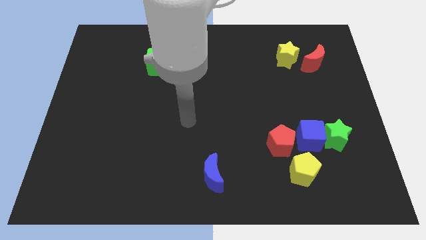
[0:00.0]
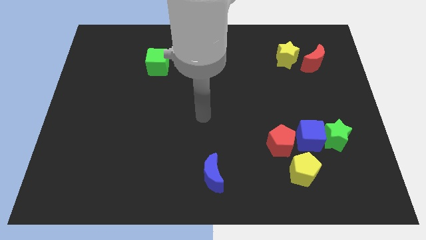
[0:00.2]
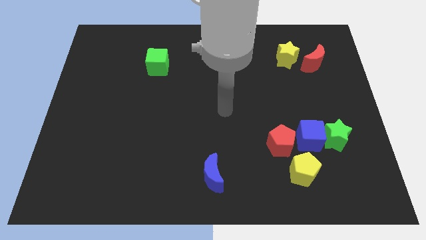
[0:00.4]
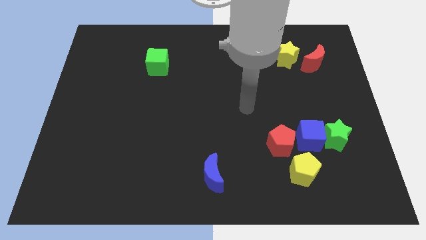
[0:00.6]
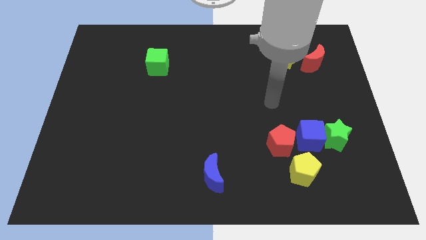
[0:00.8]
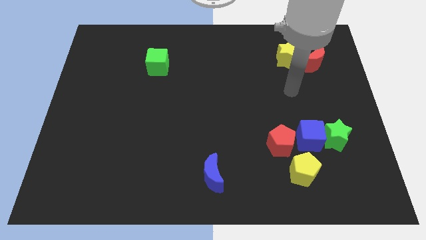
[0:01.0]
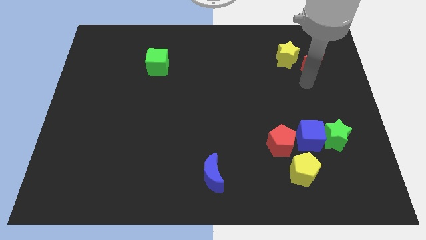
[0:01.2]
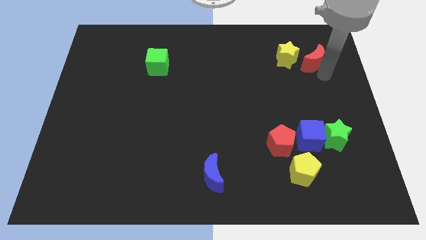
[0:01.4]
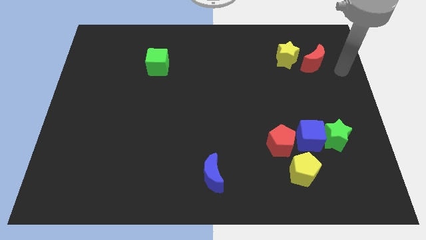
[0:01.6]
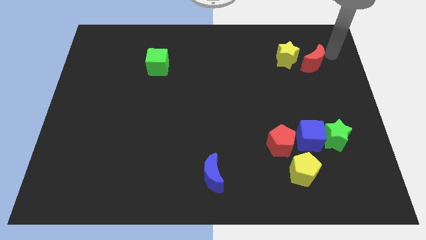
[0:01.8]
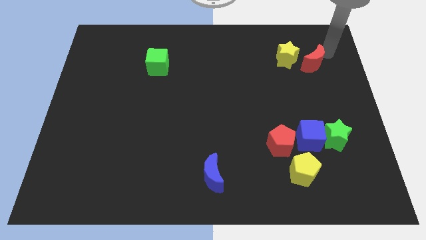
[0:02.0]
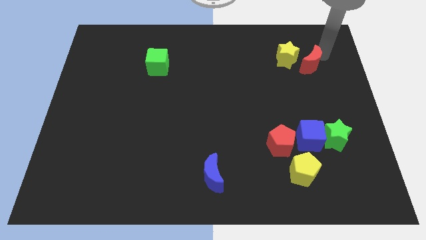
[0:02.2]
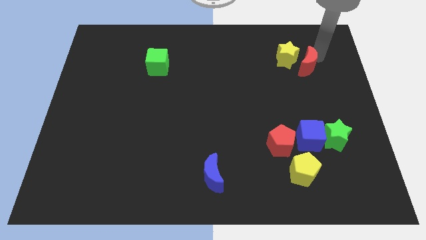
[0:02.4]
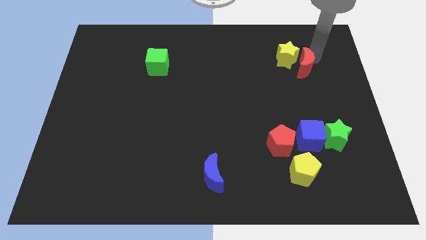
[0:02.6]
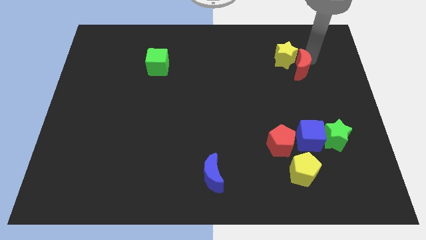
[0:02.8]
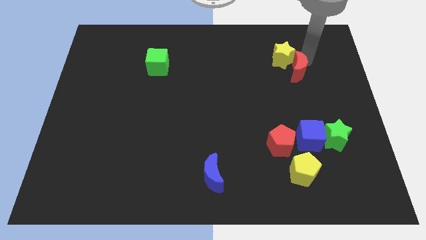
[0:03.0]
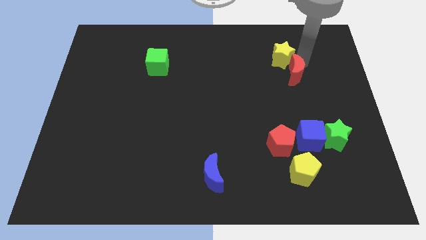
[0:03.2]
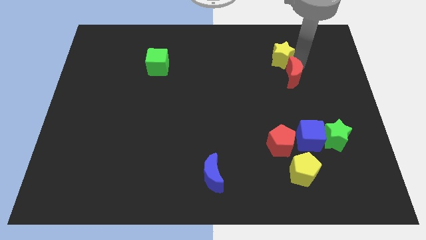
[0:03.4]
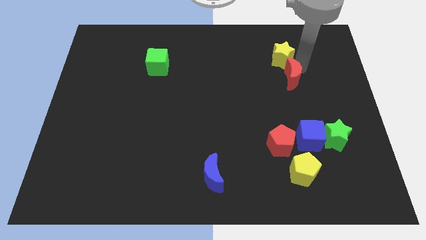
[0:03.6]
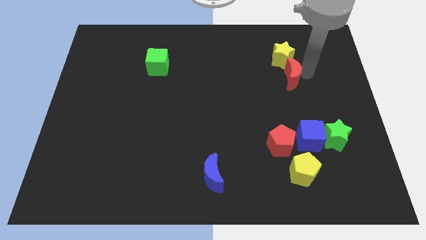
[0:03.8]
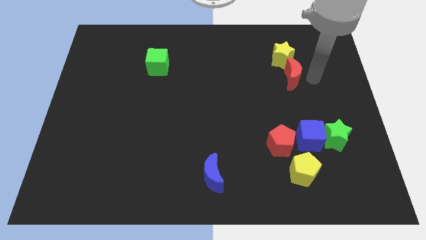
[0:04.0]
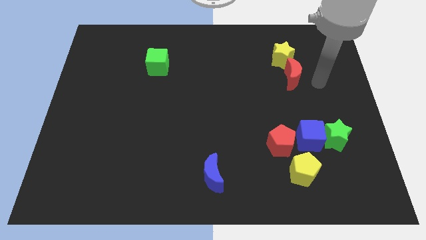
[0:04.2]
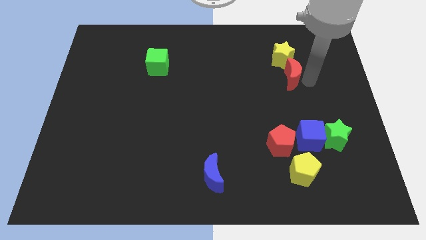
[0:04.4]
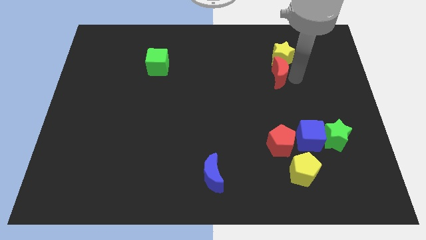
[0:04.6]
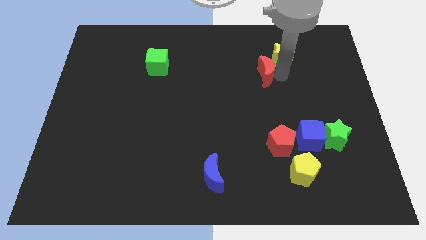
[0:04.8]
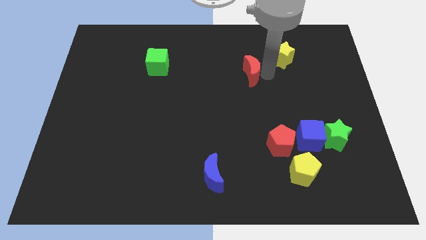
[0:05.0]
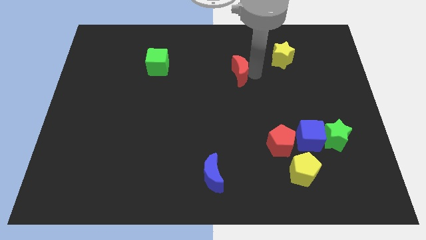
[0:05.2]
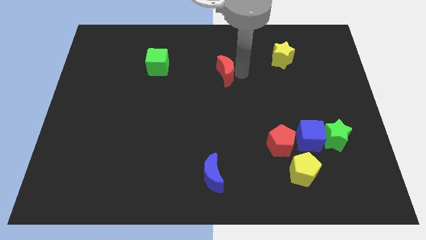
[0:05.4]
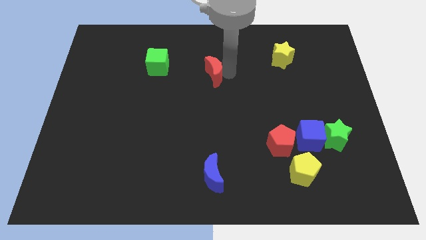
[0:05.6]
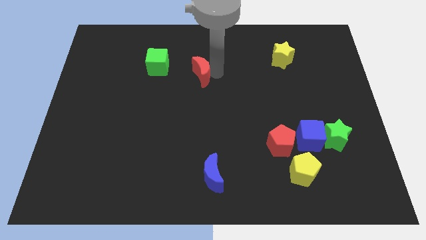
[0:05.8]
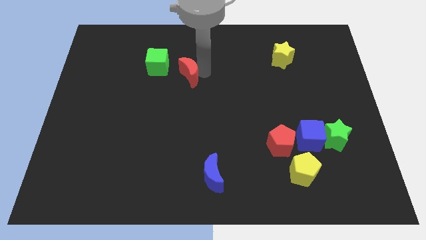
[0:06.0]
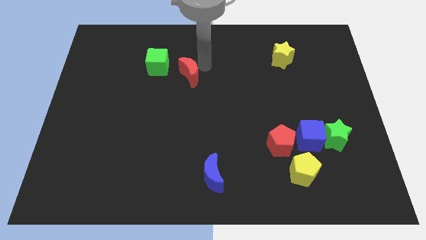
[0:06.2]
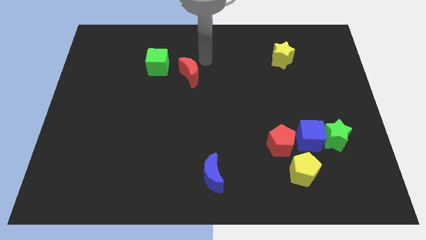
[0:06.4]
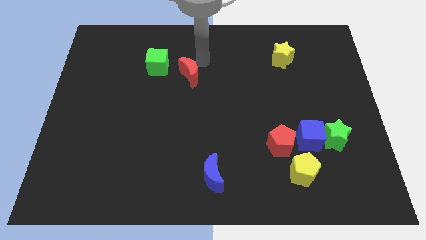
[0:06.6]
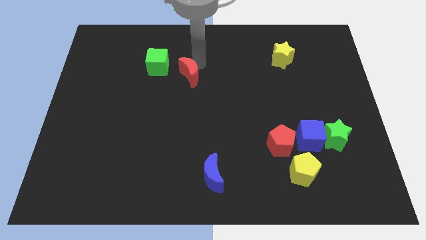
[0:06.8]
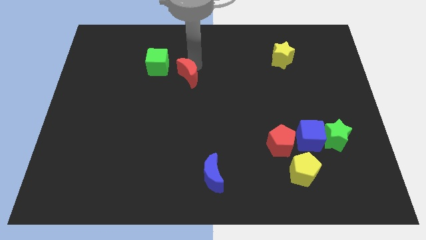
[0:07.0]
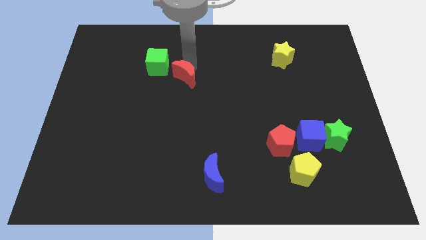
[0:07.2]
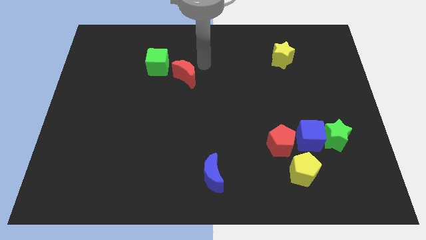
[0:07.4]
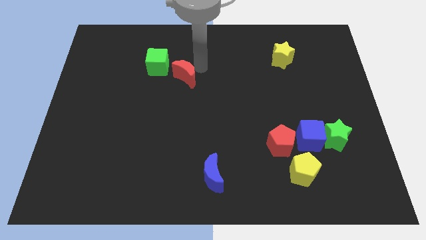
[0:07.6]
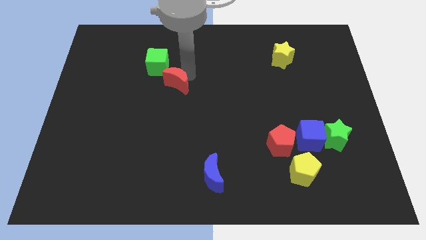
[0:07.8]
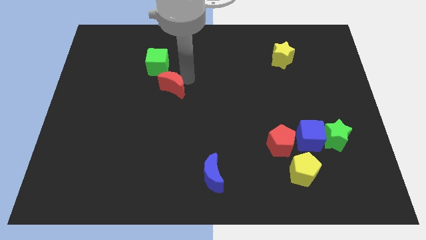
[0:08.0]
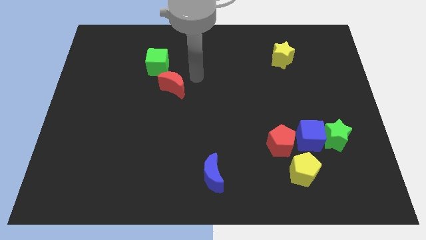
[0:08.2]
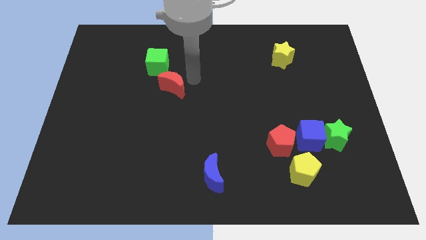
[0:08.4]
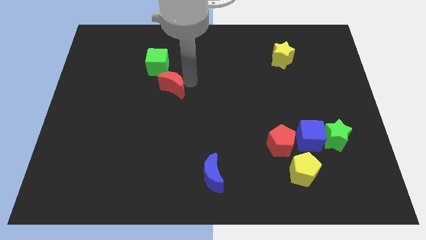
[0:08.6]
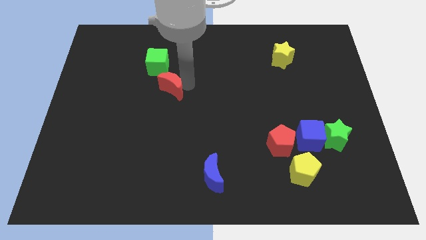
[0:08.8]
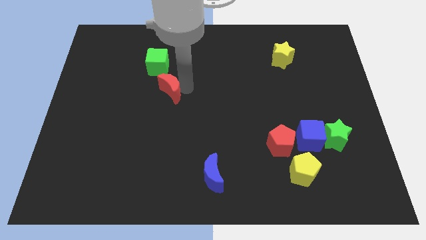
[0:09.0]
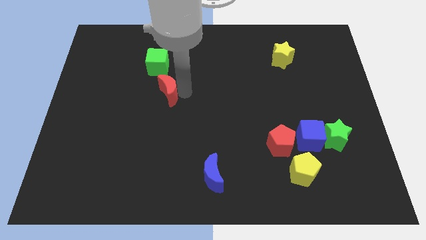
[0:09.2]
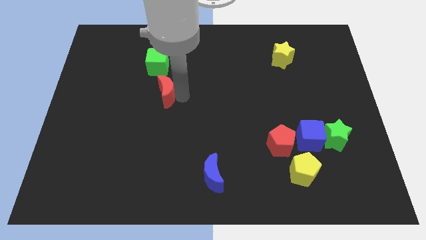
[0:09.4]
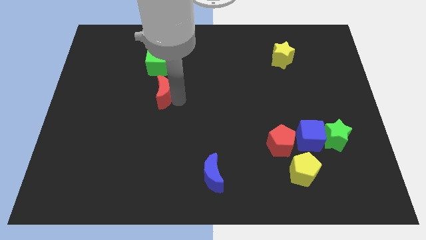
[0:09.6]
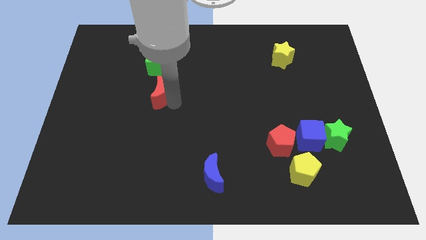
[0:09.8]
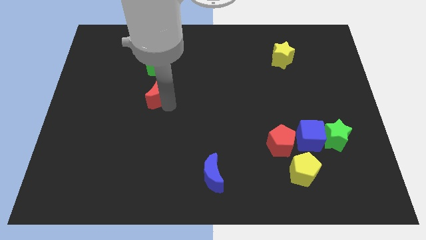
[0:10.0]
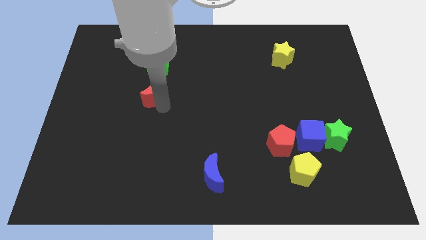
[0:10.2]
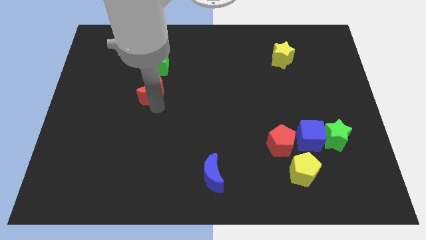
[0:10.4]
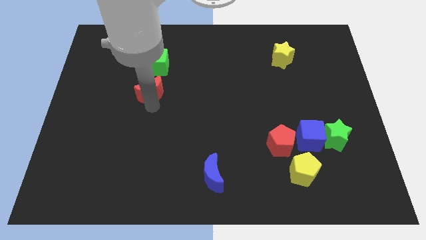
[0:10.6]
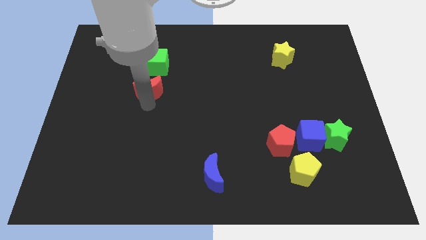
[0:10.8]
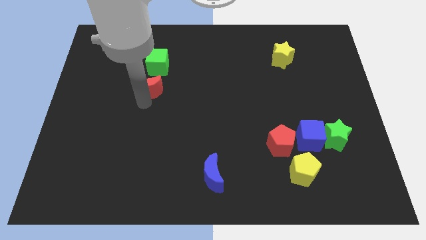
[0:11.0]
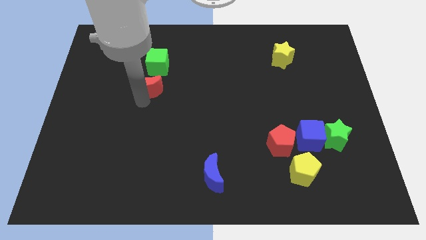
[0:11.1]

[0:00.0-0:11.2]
slide the red moon to the bottom left of the green cube

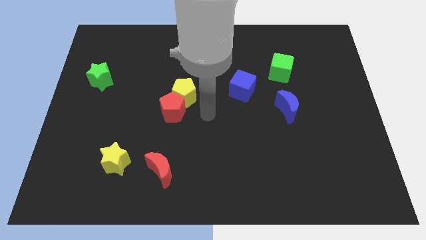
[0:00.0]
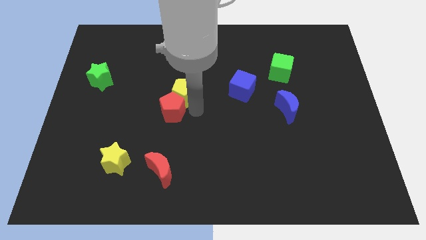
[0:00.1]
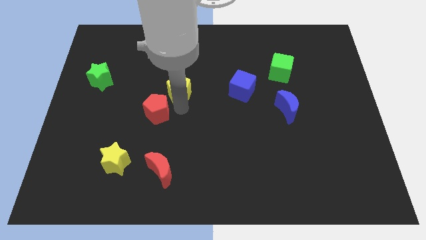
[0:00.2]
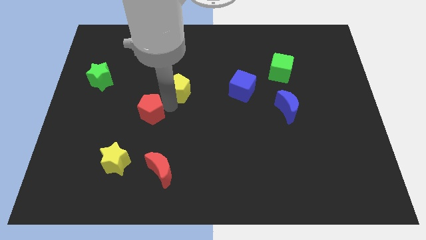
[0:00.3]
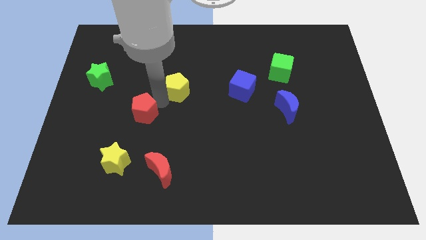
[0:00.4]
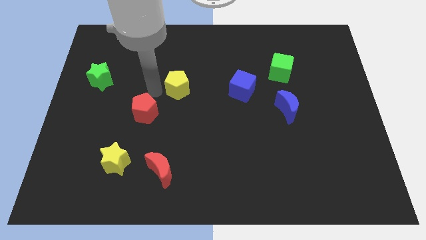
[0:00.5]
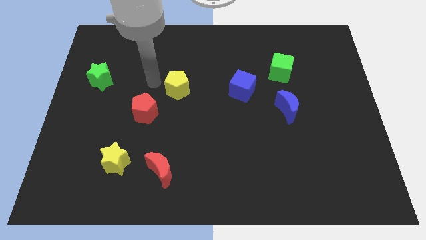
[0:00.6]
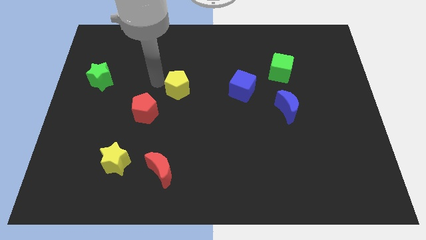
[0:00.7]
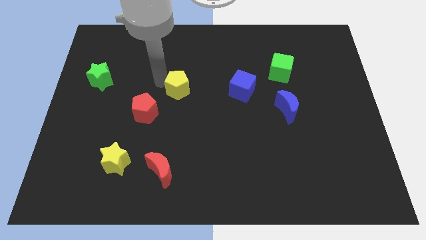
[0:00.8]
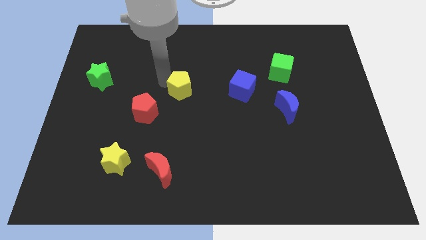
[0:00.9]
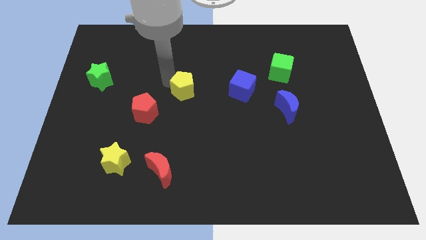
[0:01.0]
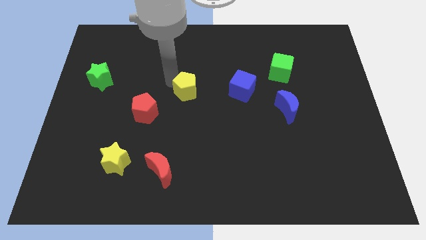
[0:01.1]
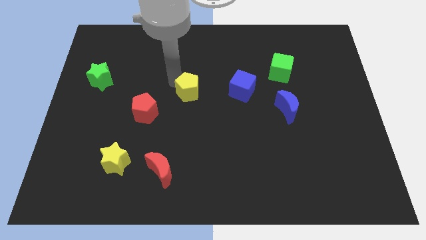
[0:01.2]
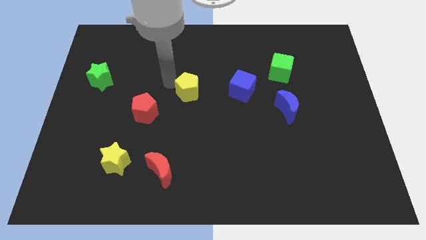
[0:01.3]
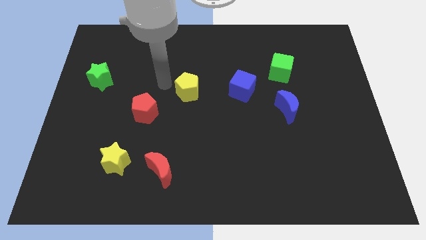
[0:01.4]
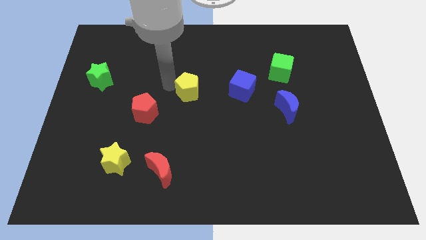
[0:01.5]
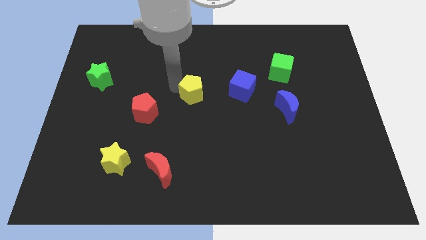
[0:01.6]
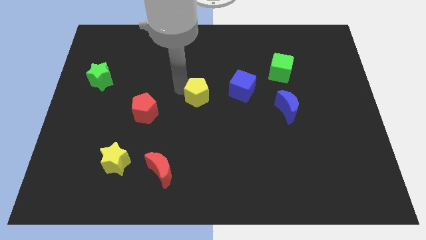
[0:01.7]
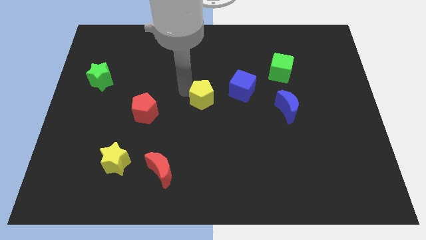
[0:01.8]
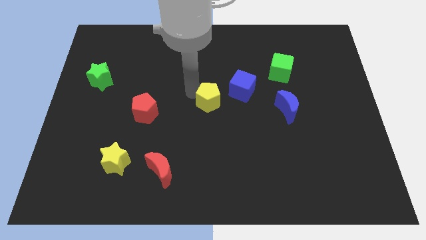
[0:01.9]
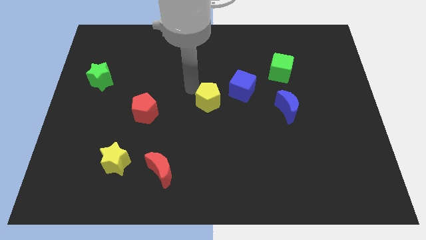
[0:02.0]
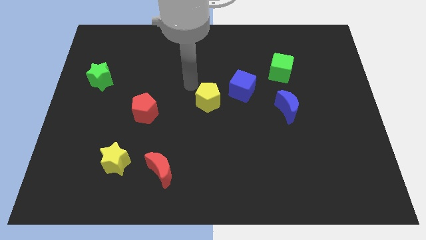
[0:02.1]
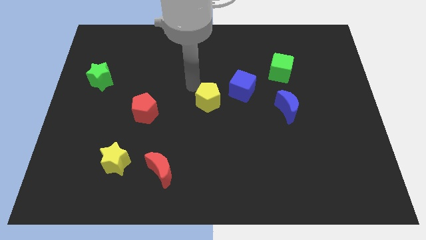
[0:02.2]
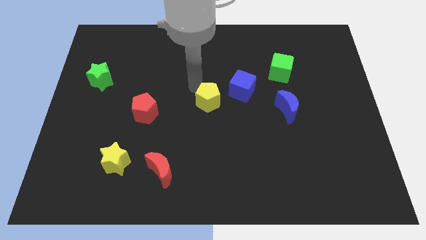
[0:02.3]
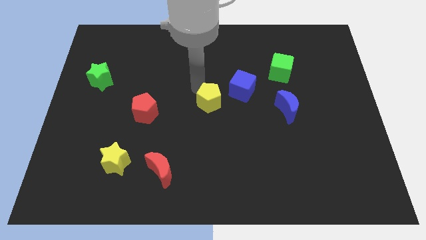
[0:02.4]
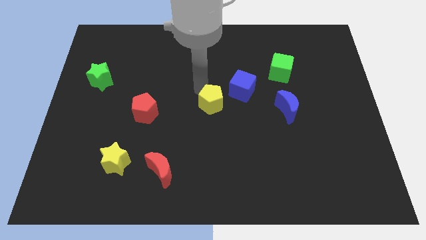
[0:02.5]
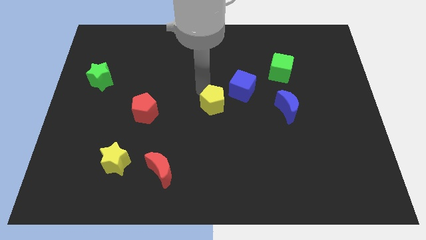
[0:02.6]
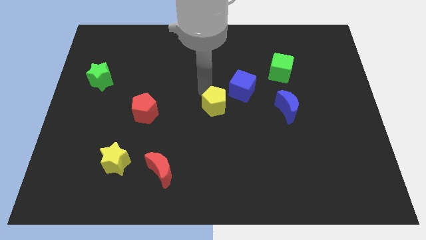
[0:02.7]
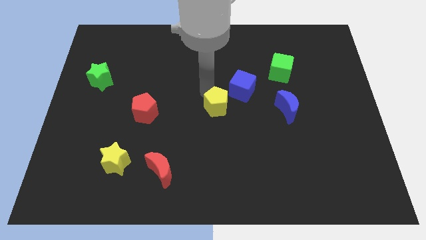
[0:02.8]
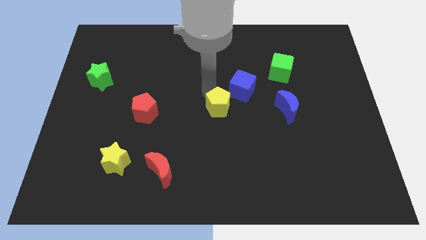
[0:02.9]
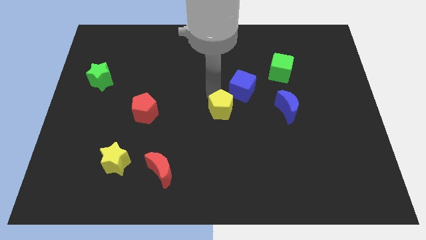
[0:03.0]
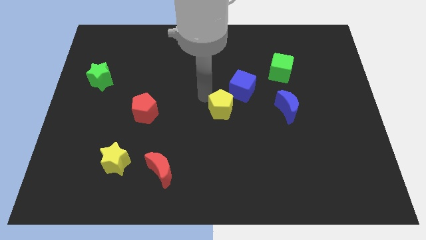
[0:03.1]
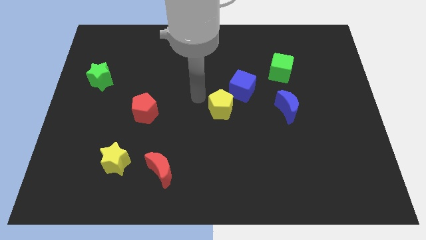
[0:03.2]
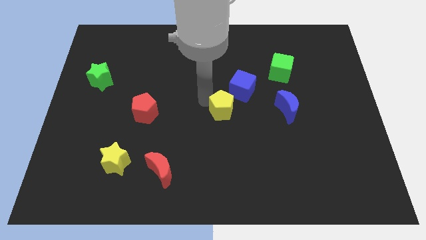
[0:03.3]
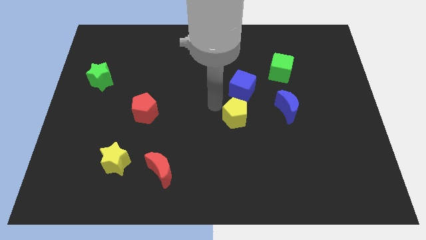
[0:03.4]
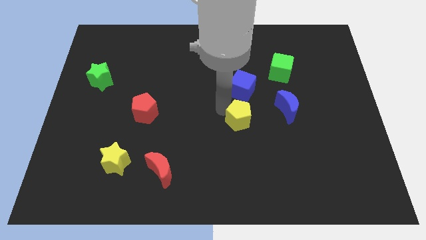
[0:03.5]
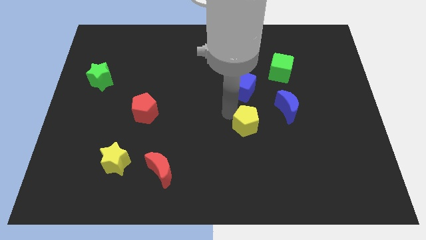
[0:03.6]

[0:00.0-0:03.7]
put the yellow pentagon to the bottom left side of the blue moon
